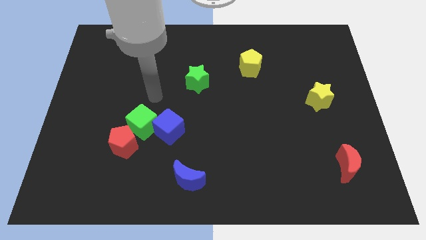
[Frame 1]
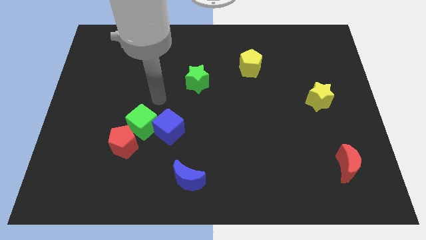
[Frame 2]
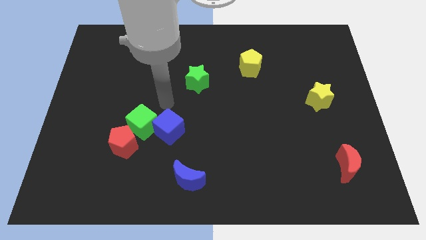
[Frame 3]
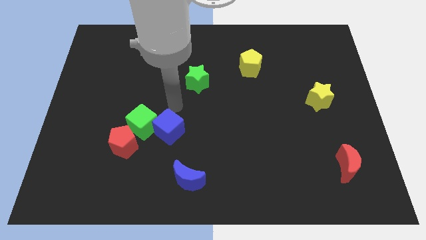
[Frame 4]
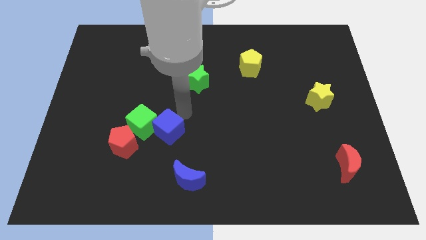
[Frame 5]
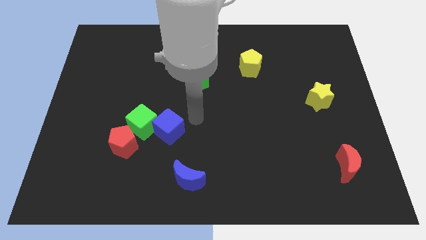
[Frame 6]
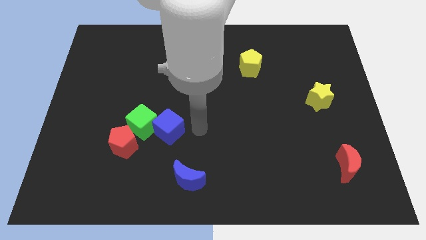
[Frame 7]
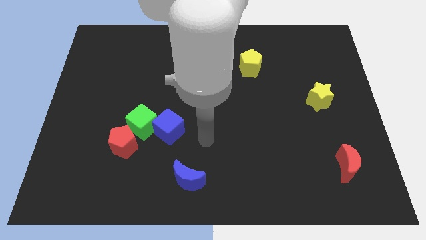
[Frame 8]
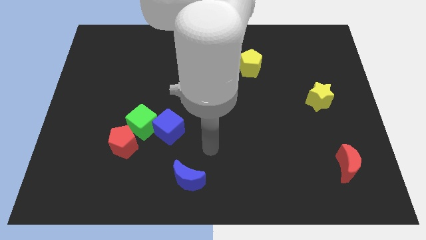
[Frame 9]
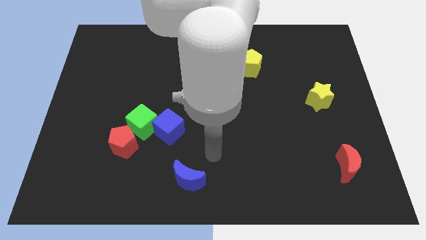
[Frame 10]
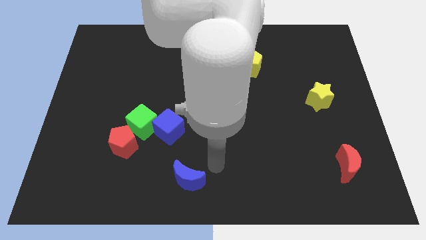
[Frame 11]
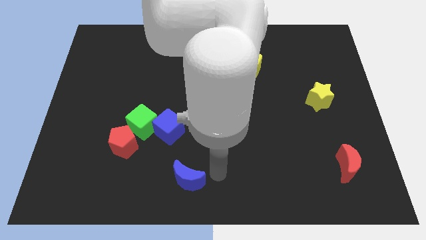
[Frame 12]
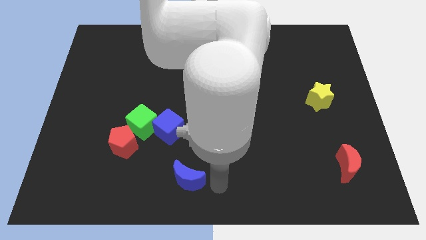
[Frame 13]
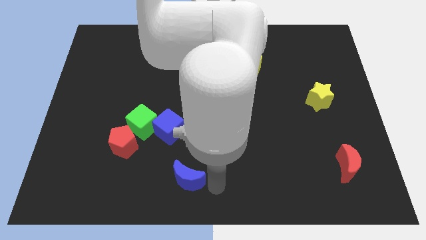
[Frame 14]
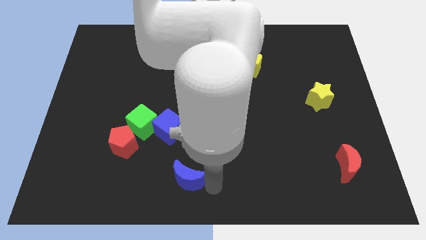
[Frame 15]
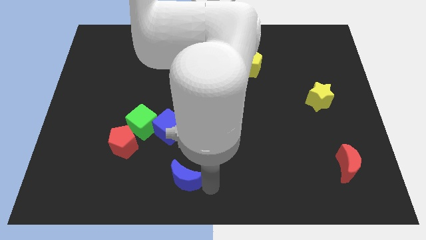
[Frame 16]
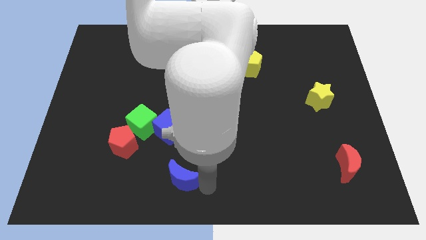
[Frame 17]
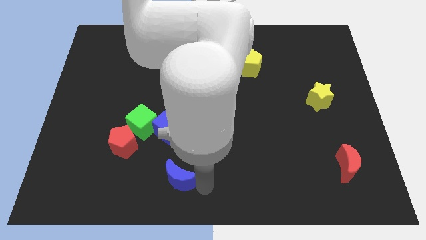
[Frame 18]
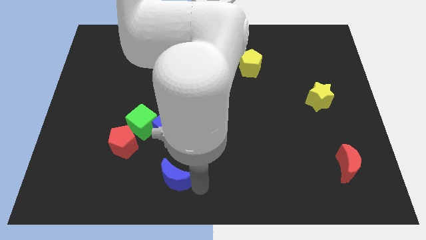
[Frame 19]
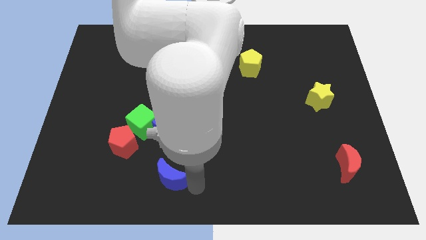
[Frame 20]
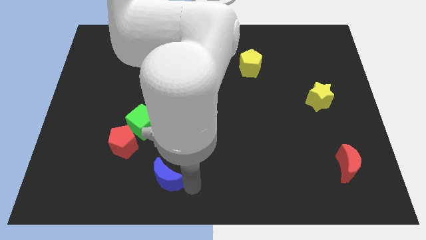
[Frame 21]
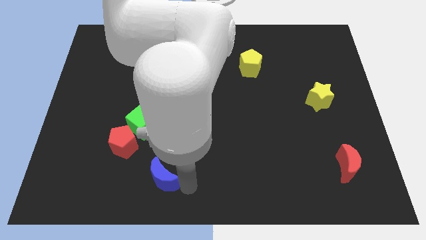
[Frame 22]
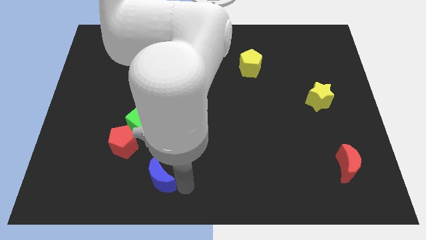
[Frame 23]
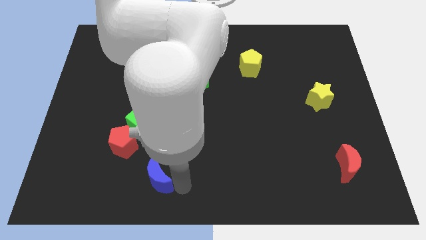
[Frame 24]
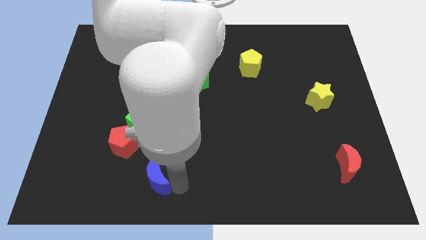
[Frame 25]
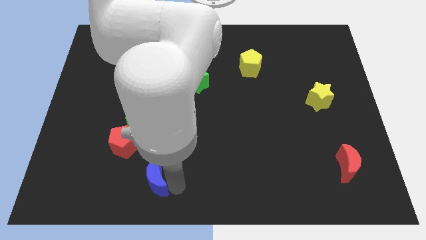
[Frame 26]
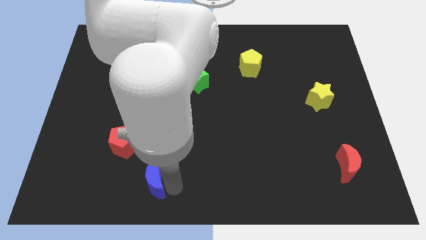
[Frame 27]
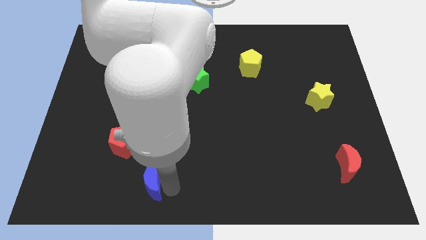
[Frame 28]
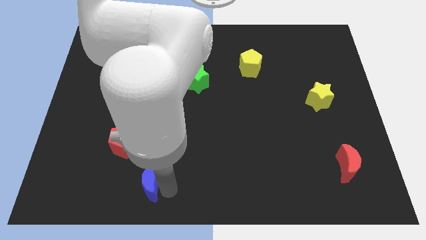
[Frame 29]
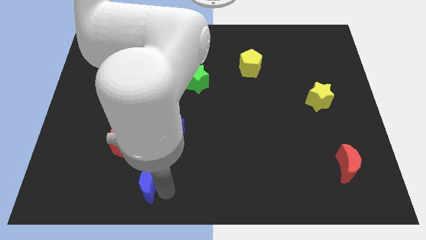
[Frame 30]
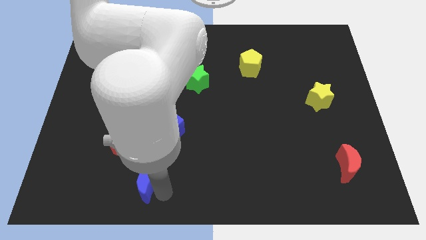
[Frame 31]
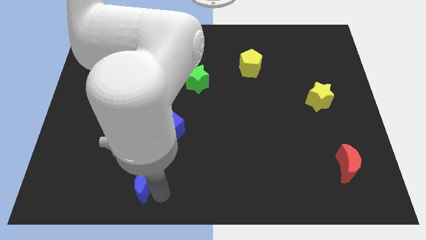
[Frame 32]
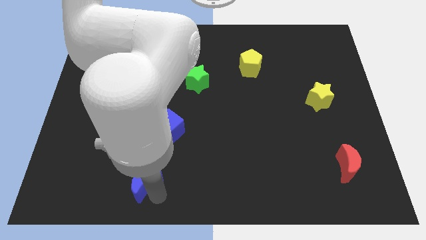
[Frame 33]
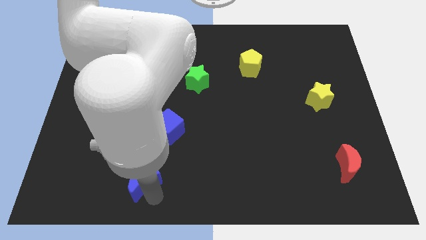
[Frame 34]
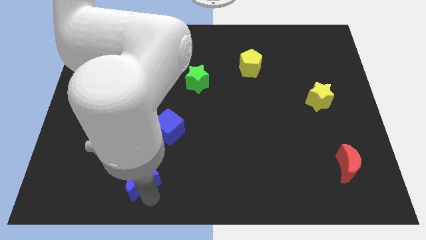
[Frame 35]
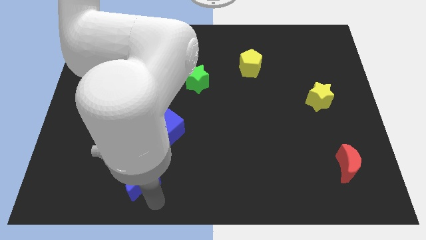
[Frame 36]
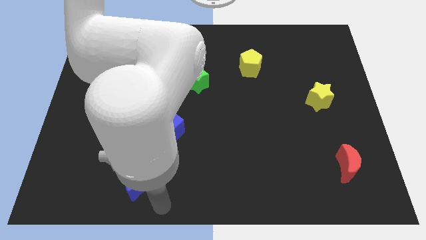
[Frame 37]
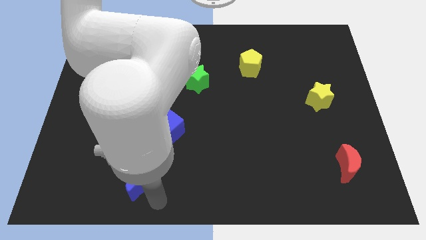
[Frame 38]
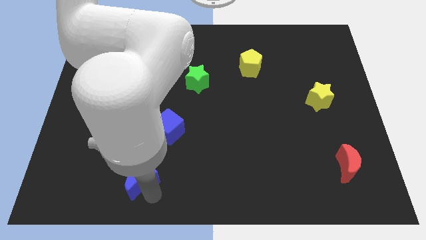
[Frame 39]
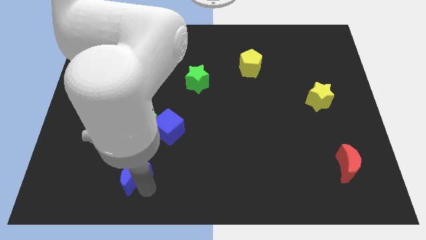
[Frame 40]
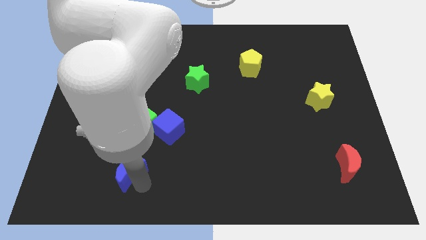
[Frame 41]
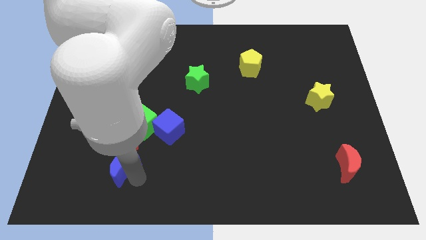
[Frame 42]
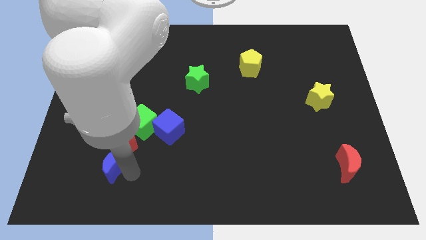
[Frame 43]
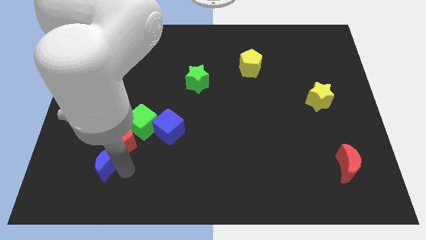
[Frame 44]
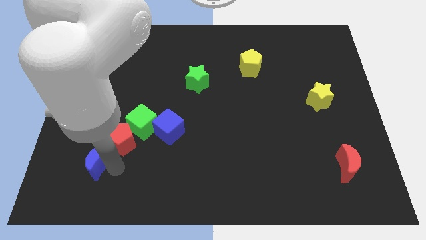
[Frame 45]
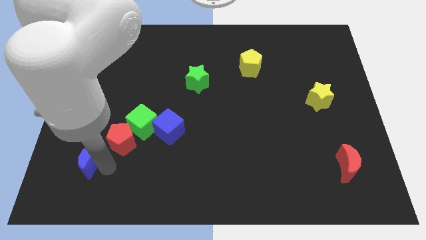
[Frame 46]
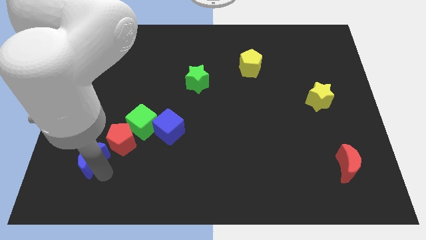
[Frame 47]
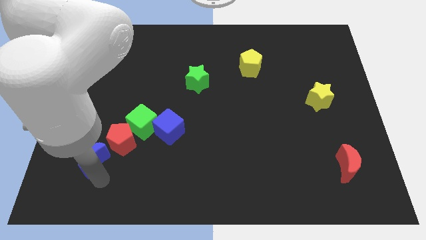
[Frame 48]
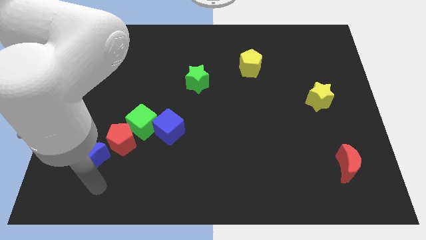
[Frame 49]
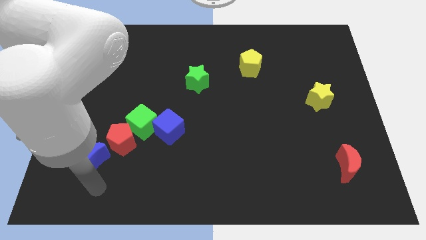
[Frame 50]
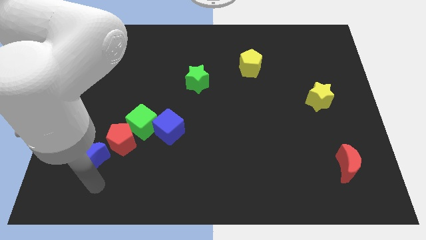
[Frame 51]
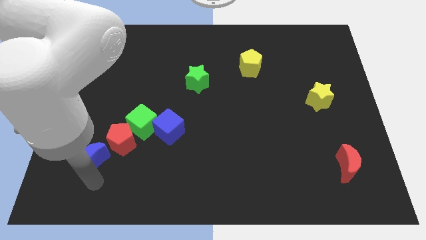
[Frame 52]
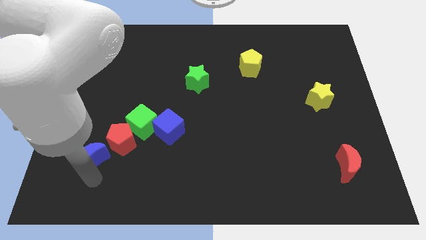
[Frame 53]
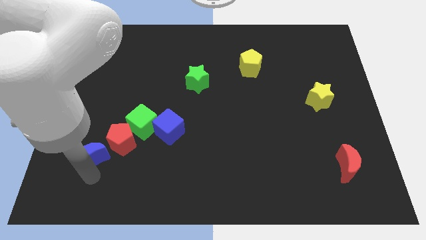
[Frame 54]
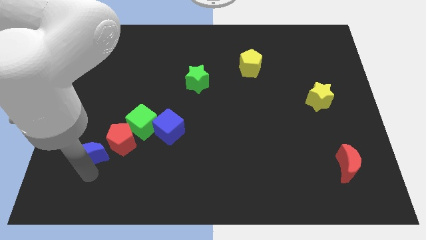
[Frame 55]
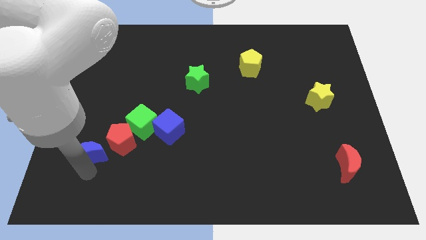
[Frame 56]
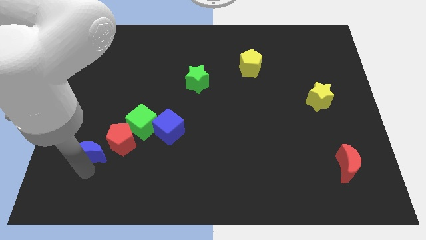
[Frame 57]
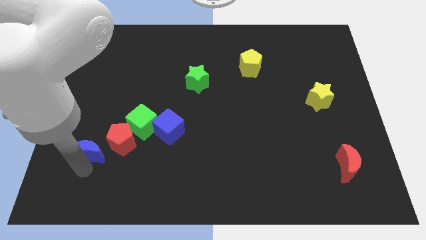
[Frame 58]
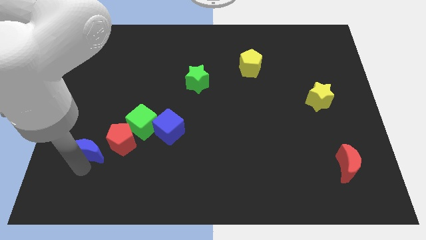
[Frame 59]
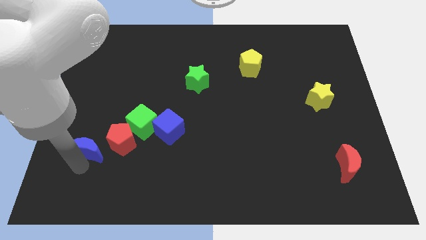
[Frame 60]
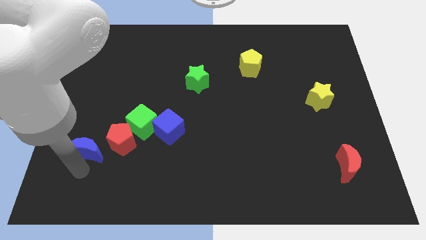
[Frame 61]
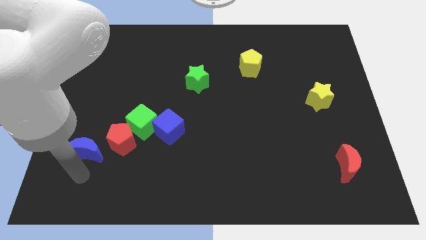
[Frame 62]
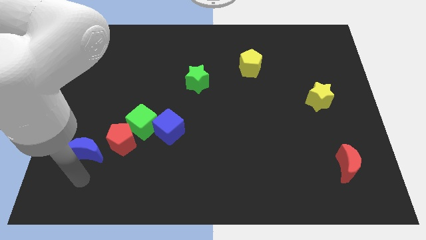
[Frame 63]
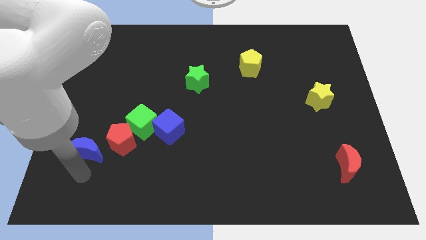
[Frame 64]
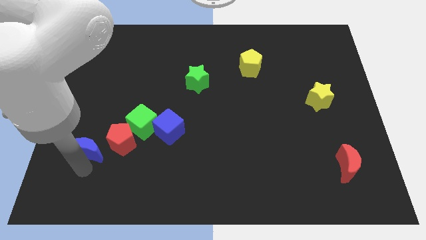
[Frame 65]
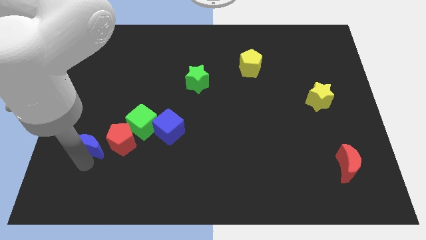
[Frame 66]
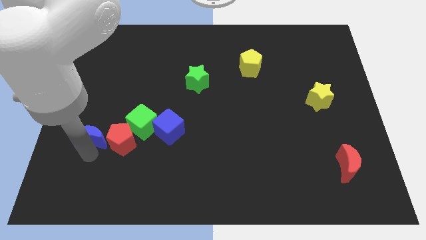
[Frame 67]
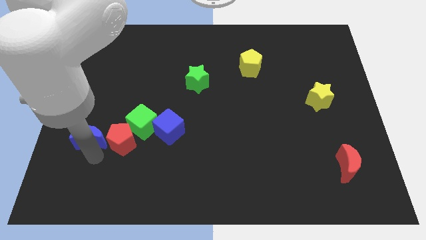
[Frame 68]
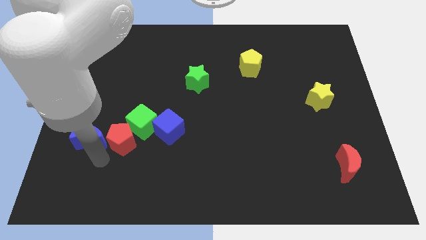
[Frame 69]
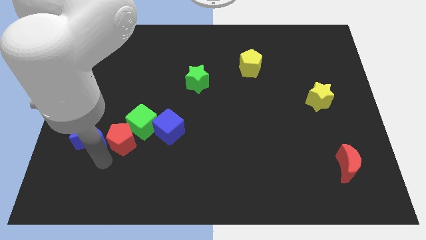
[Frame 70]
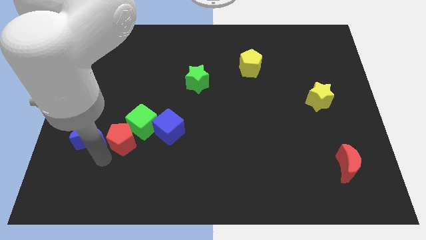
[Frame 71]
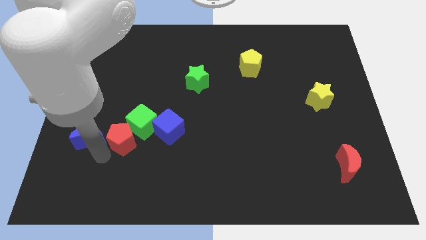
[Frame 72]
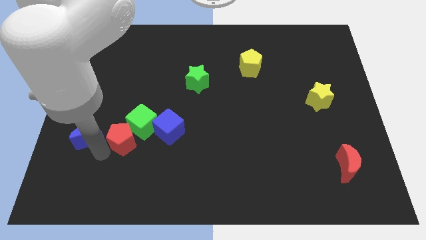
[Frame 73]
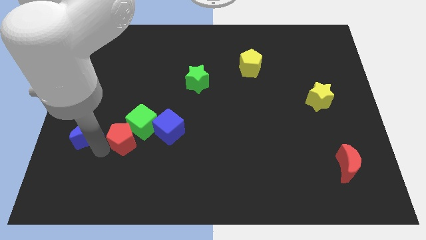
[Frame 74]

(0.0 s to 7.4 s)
push the blue moon upwards and left diagonally

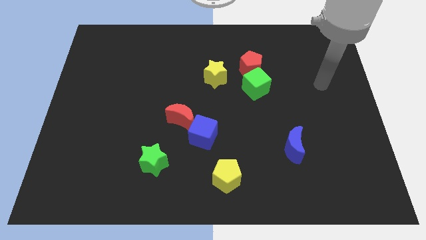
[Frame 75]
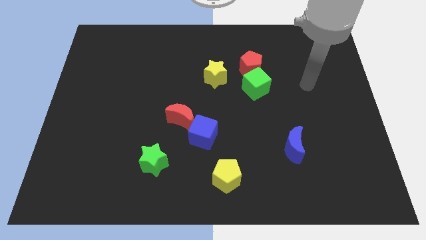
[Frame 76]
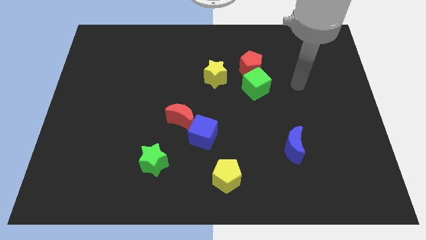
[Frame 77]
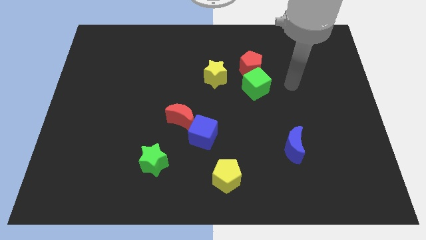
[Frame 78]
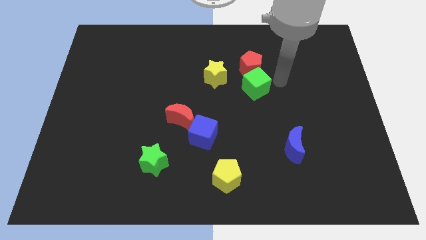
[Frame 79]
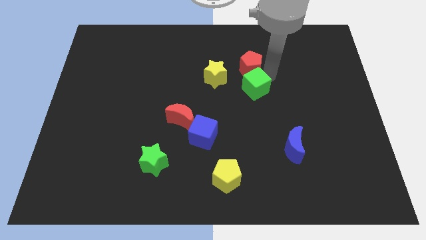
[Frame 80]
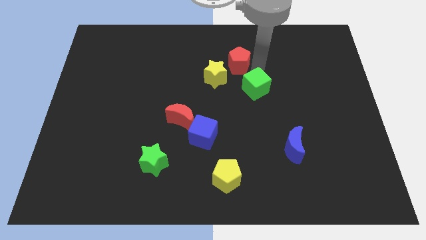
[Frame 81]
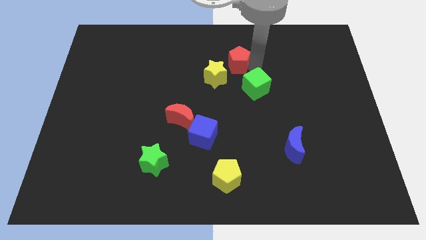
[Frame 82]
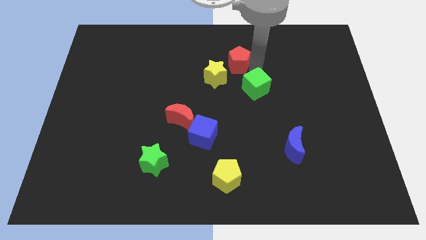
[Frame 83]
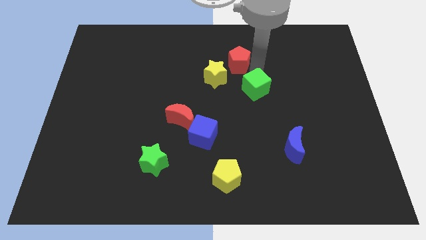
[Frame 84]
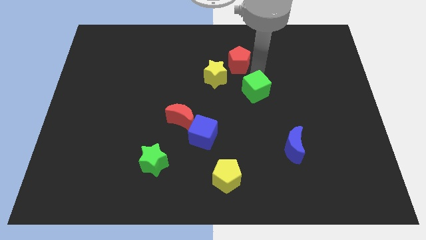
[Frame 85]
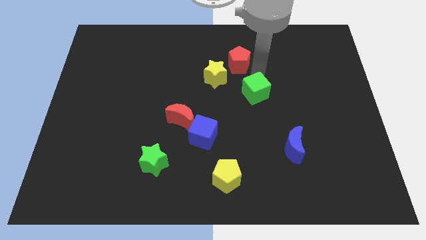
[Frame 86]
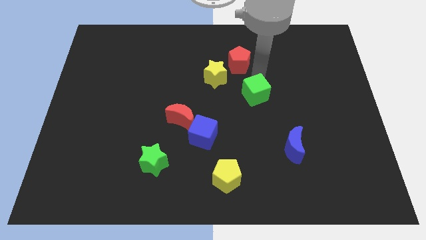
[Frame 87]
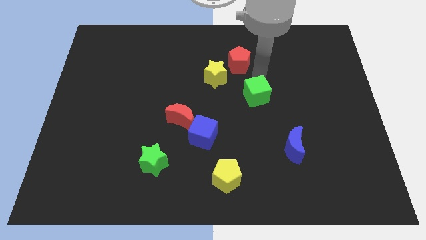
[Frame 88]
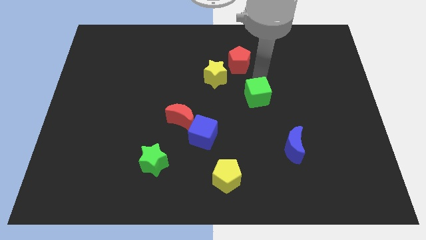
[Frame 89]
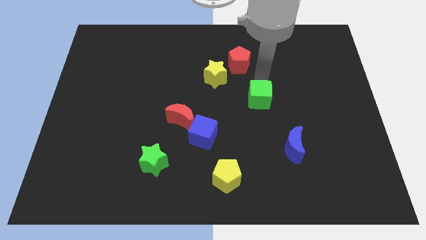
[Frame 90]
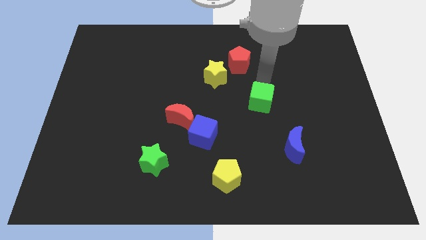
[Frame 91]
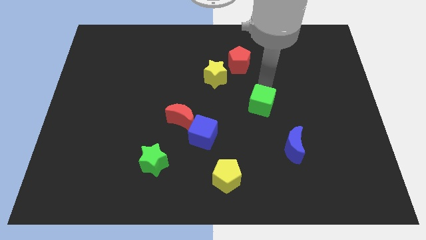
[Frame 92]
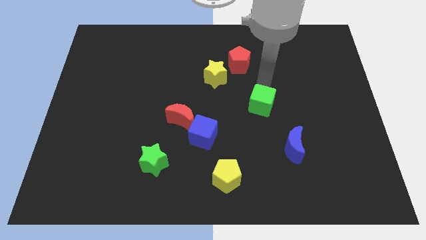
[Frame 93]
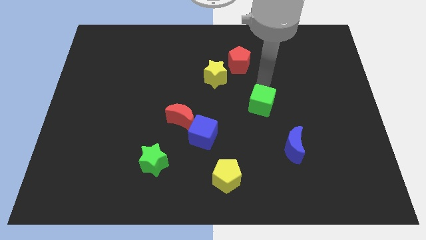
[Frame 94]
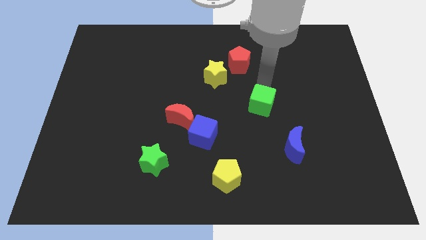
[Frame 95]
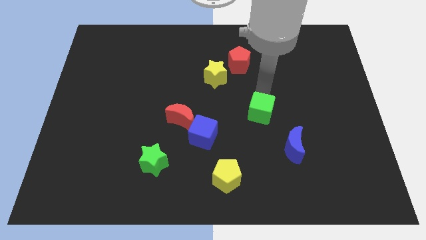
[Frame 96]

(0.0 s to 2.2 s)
slightly slide the green cube down
